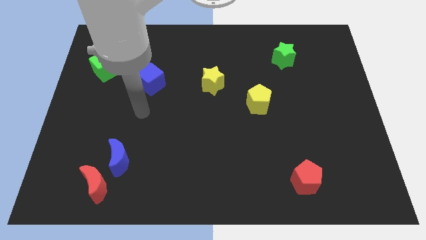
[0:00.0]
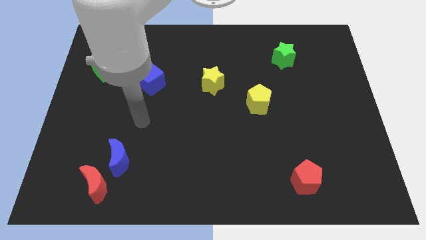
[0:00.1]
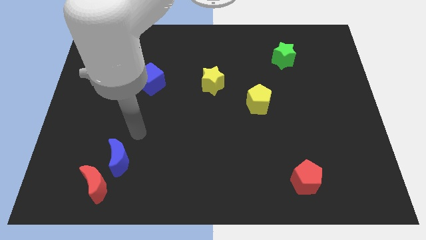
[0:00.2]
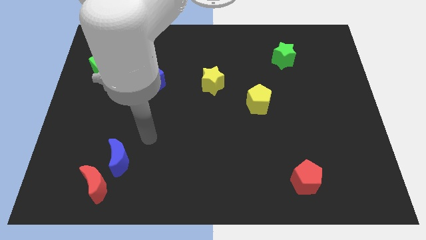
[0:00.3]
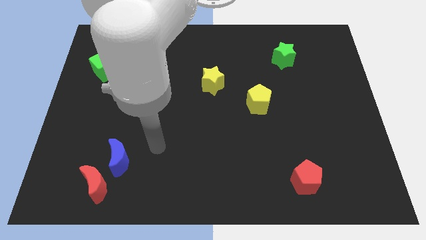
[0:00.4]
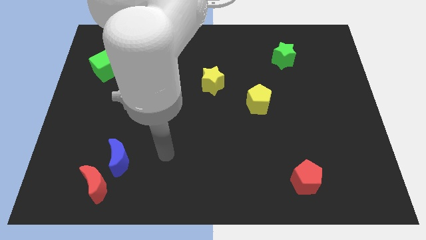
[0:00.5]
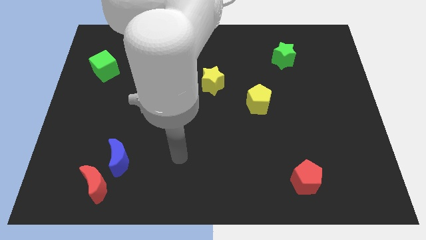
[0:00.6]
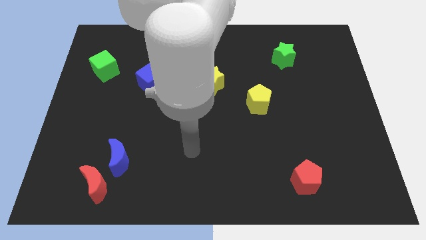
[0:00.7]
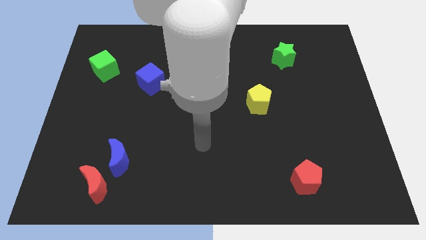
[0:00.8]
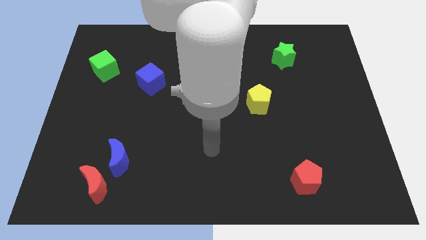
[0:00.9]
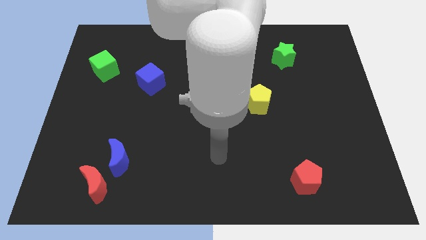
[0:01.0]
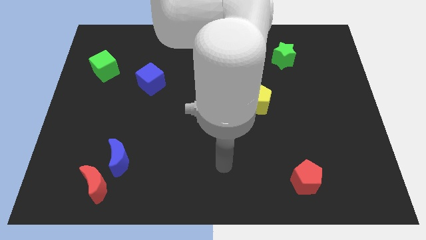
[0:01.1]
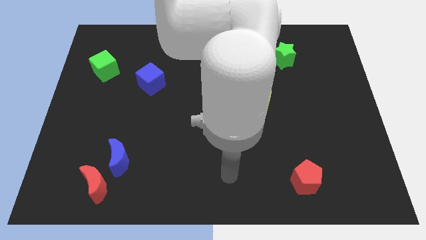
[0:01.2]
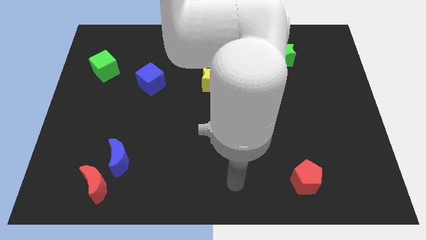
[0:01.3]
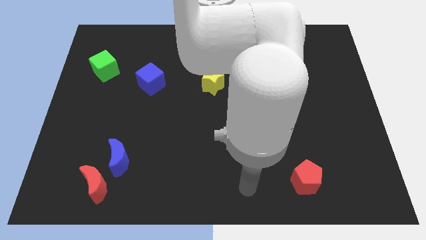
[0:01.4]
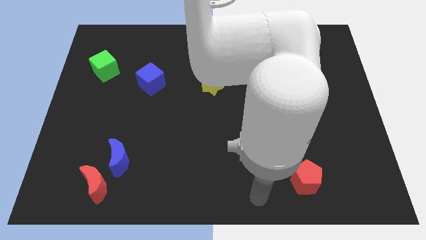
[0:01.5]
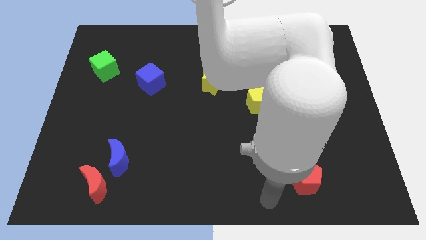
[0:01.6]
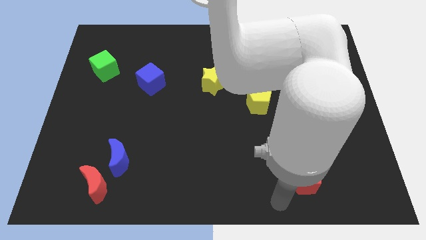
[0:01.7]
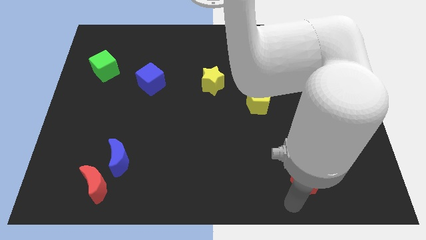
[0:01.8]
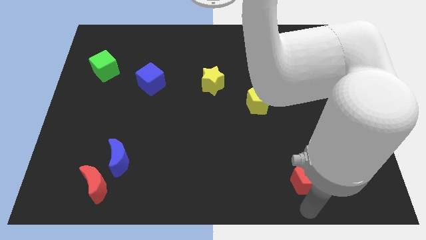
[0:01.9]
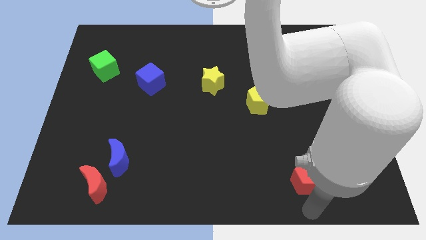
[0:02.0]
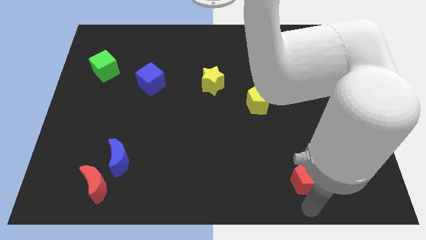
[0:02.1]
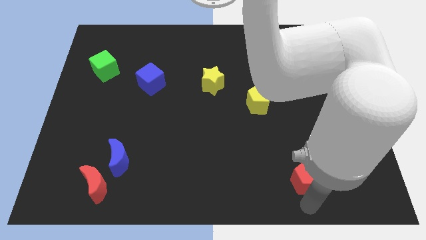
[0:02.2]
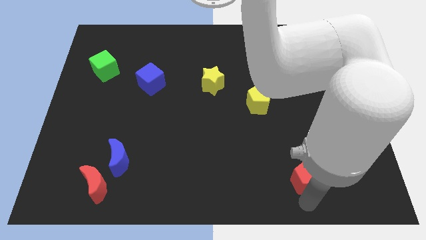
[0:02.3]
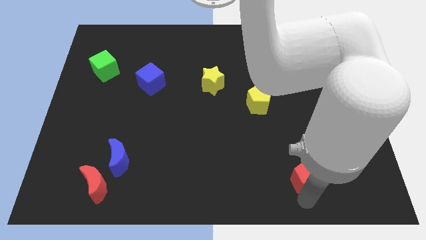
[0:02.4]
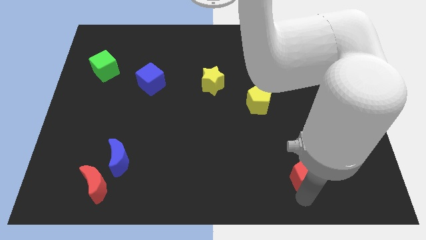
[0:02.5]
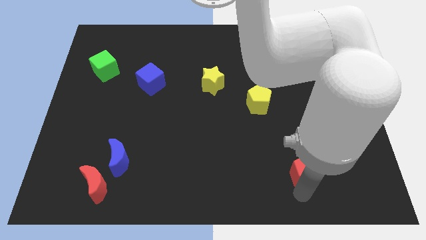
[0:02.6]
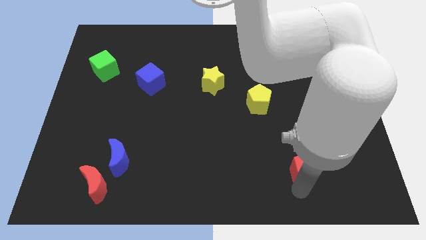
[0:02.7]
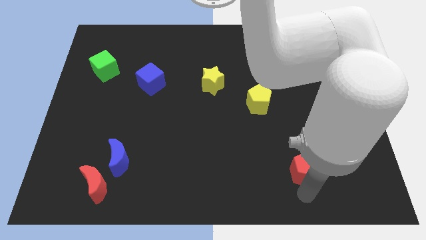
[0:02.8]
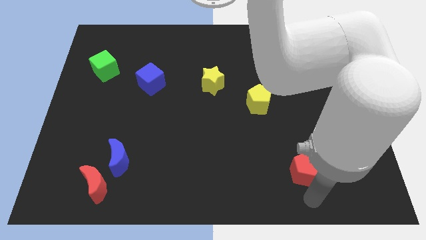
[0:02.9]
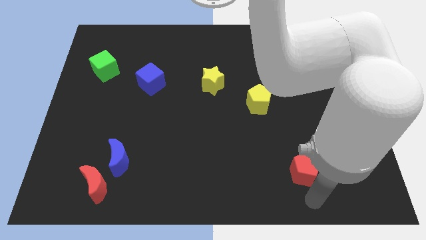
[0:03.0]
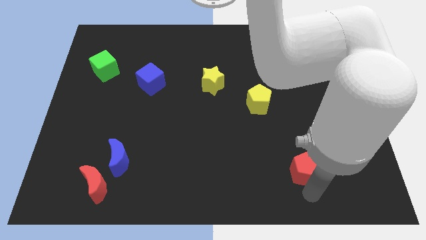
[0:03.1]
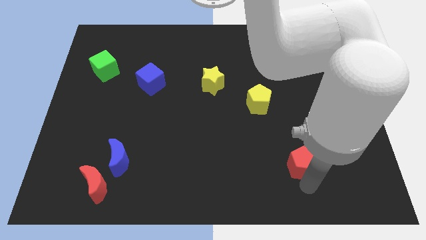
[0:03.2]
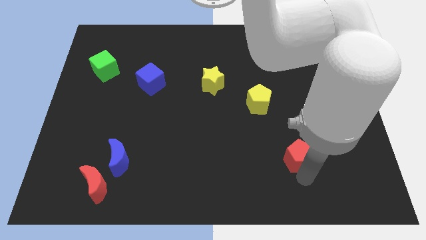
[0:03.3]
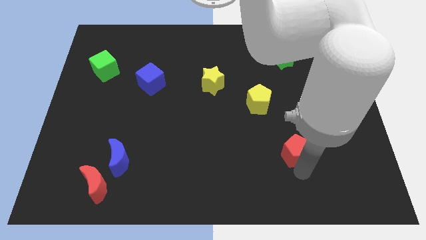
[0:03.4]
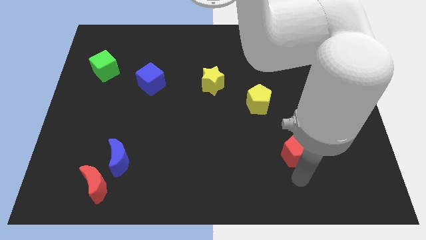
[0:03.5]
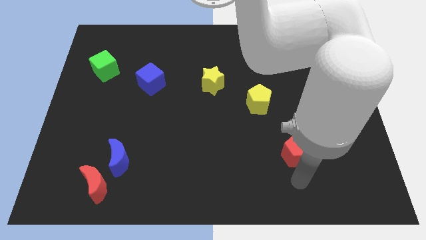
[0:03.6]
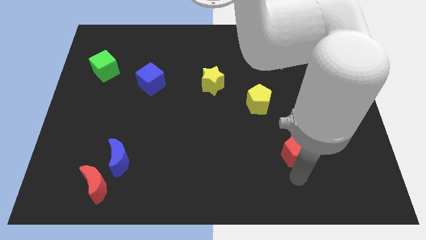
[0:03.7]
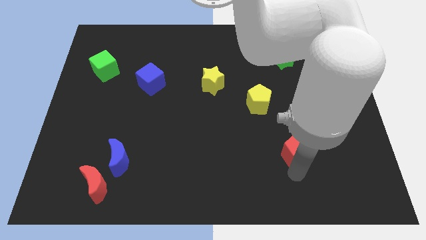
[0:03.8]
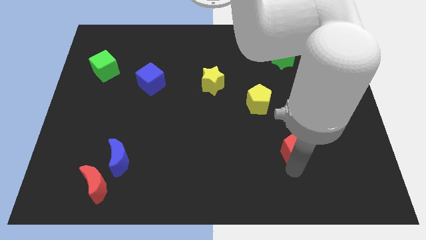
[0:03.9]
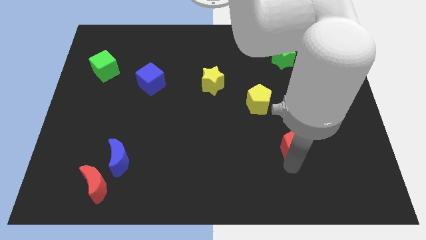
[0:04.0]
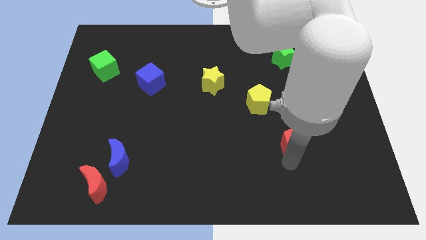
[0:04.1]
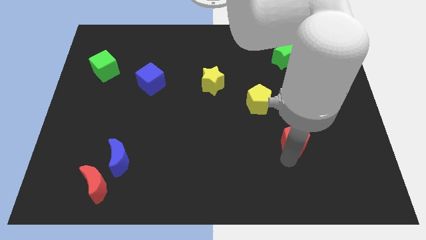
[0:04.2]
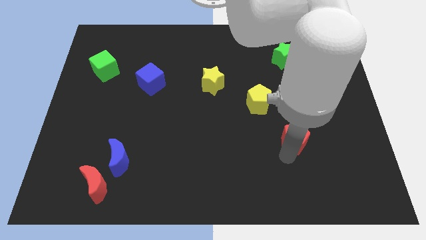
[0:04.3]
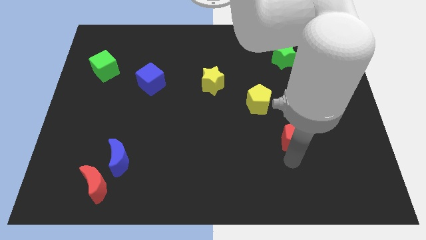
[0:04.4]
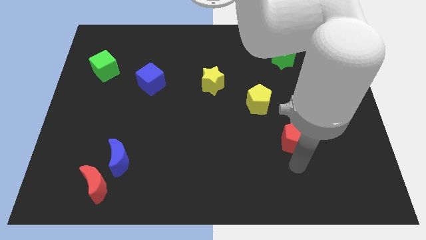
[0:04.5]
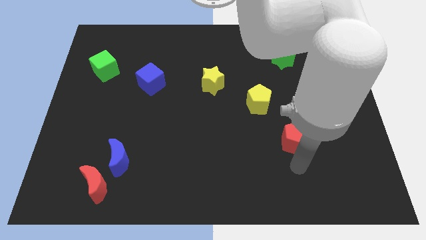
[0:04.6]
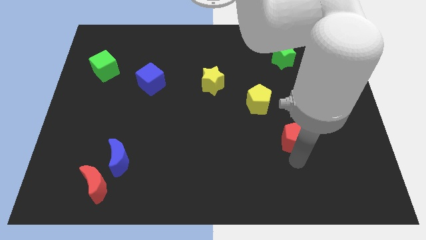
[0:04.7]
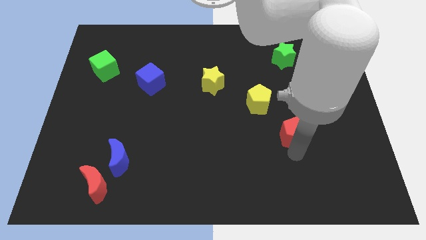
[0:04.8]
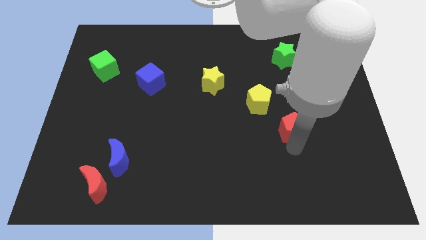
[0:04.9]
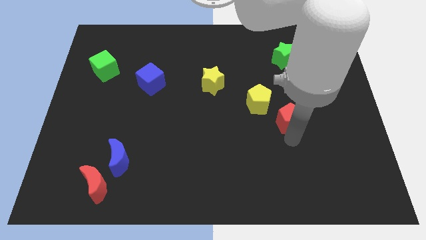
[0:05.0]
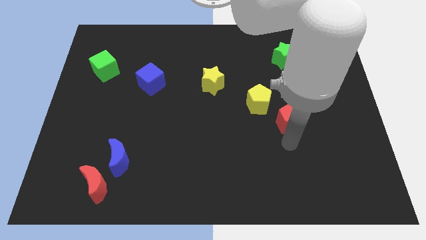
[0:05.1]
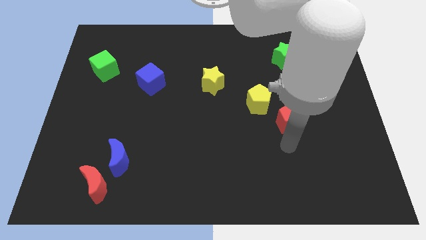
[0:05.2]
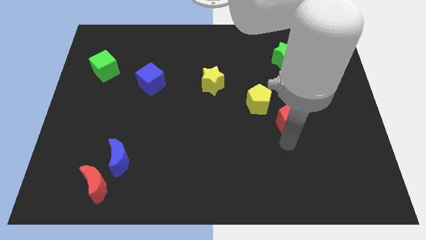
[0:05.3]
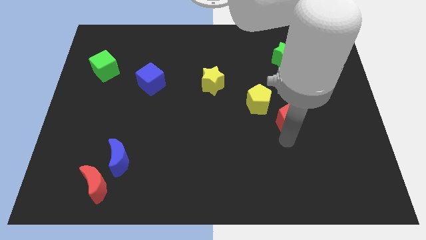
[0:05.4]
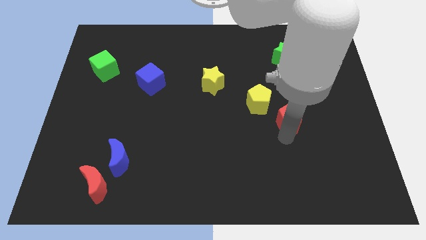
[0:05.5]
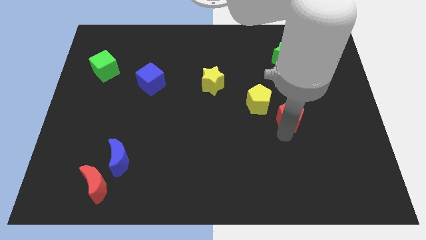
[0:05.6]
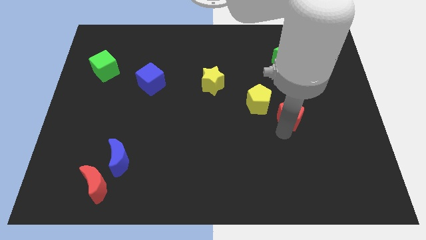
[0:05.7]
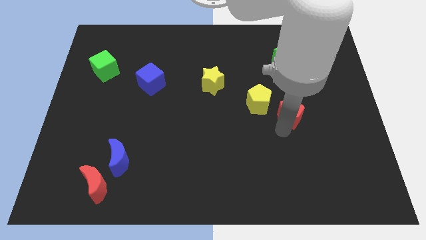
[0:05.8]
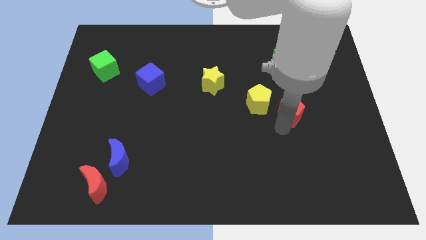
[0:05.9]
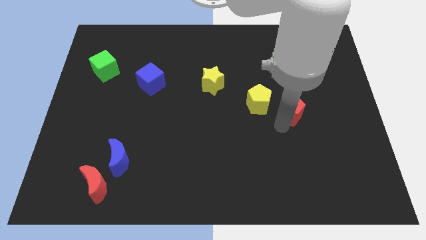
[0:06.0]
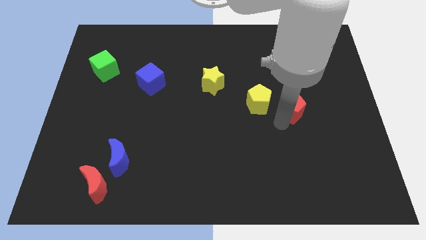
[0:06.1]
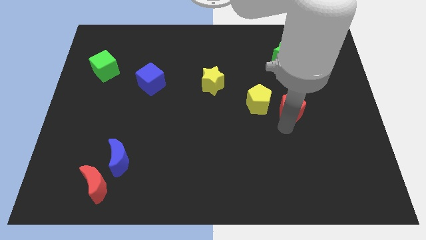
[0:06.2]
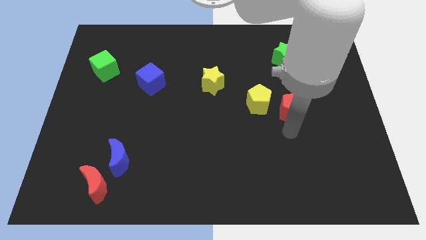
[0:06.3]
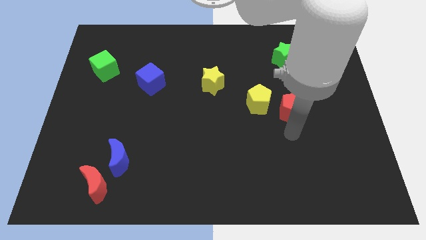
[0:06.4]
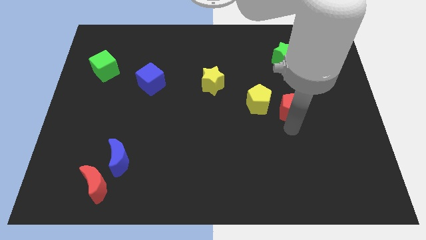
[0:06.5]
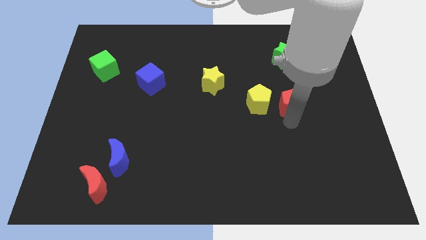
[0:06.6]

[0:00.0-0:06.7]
move the red pentagon to the bottom of the green star

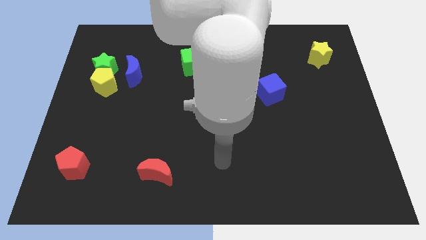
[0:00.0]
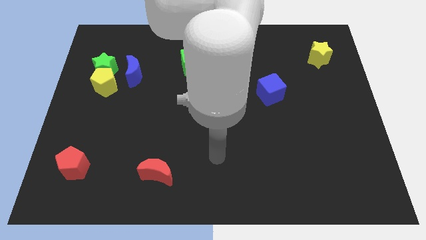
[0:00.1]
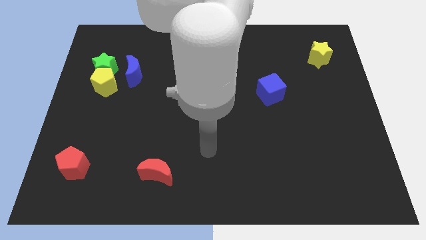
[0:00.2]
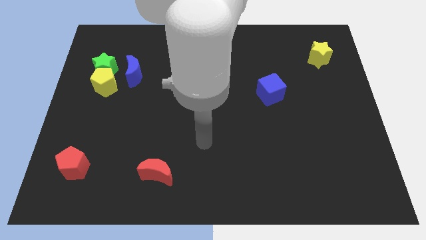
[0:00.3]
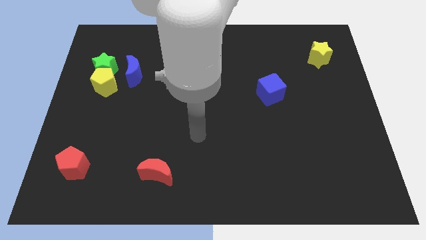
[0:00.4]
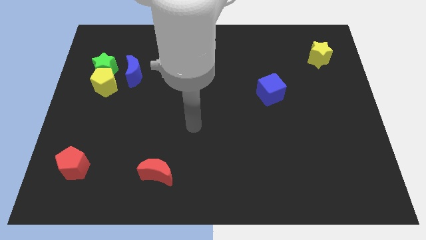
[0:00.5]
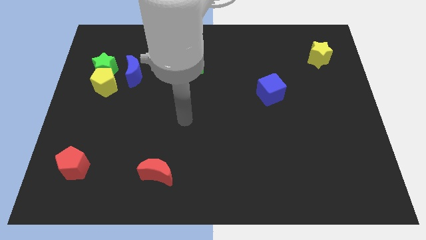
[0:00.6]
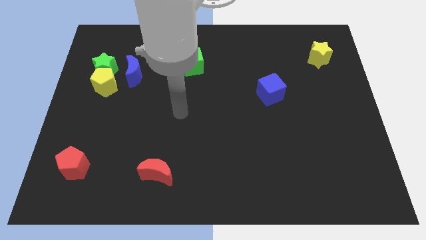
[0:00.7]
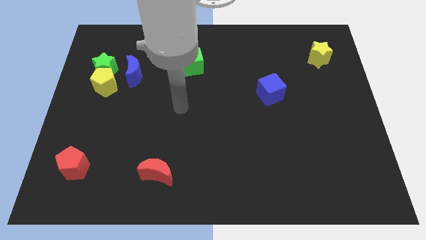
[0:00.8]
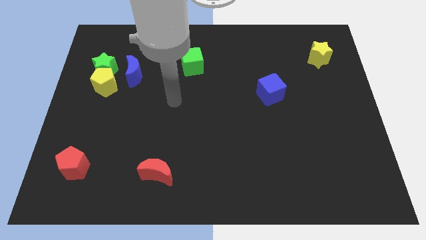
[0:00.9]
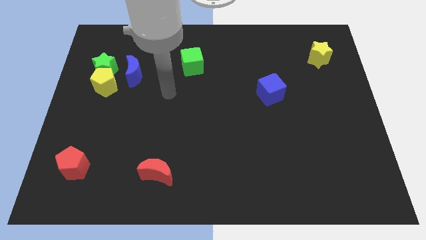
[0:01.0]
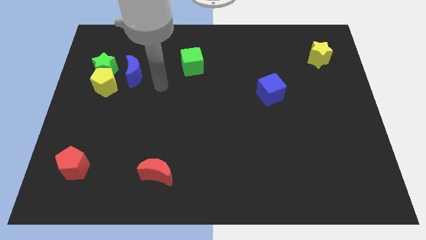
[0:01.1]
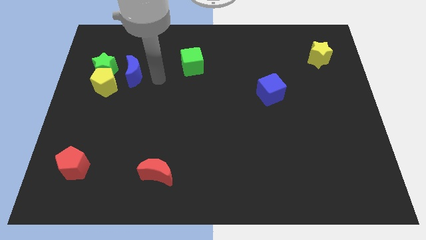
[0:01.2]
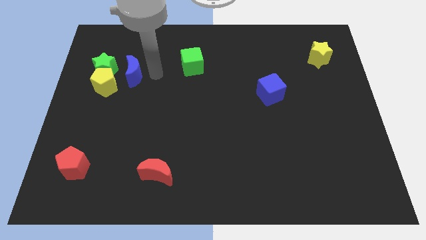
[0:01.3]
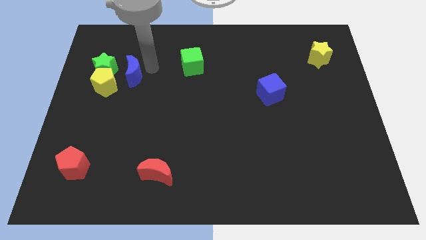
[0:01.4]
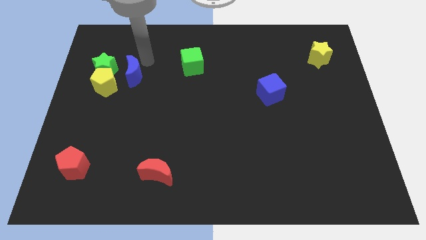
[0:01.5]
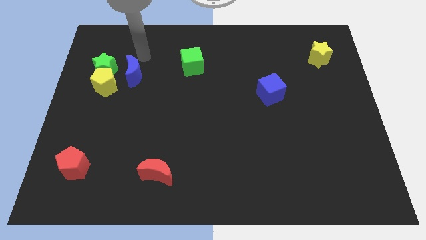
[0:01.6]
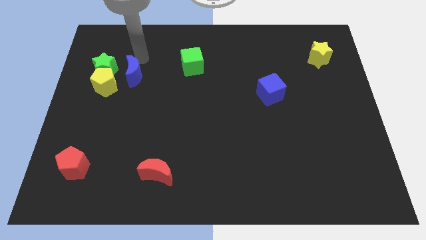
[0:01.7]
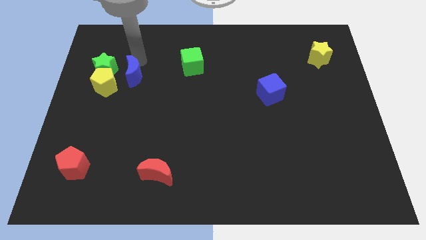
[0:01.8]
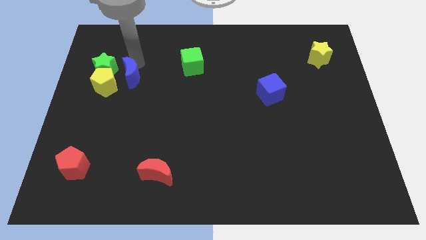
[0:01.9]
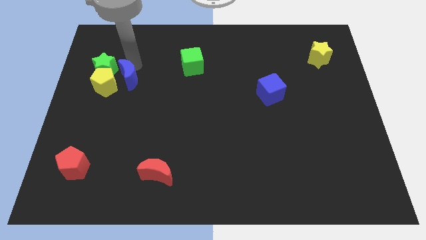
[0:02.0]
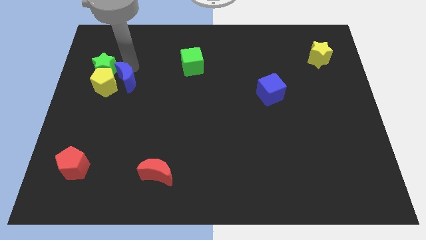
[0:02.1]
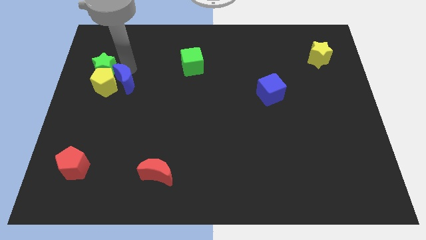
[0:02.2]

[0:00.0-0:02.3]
slide the blue moon to the bottom right side of the yellow pentagon
